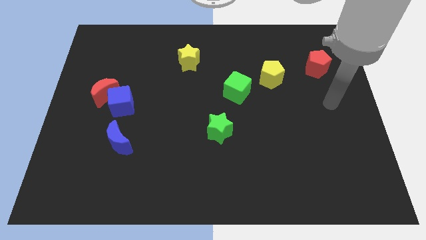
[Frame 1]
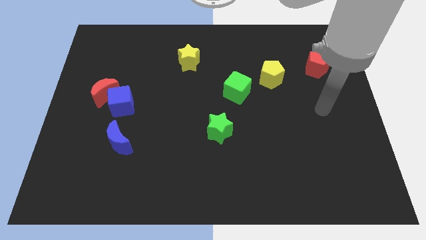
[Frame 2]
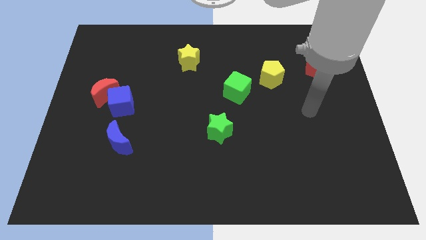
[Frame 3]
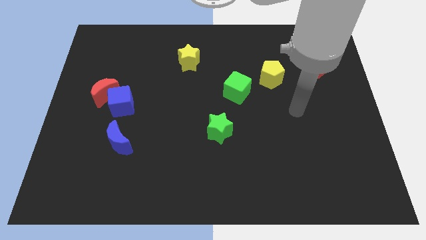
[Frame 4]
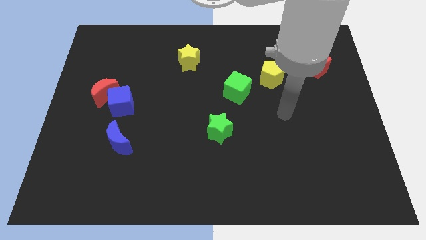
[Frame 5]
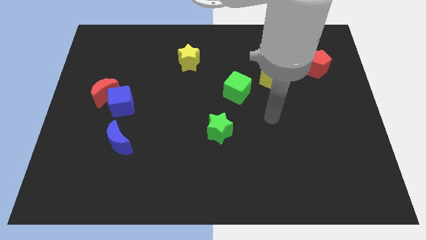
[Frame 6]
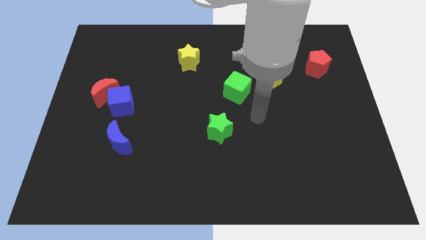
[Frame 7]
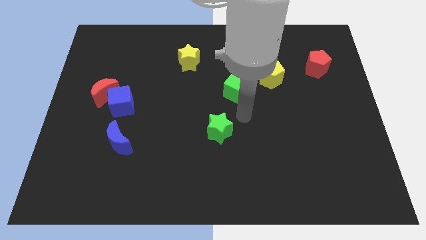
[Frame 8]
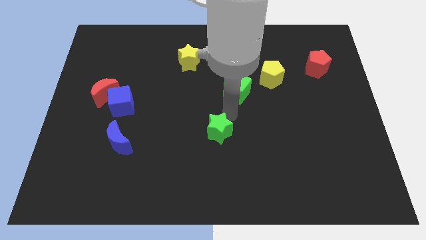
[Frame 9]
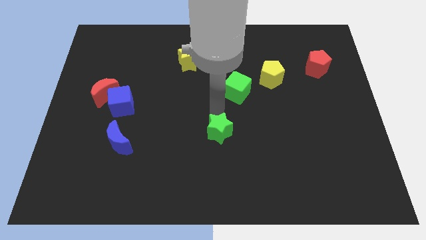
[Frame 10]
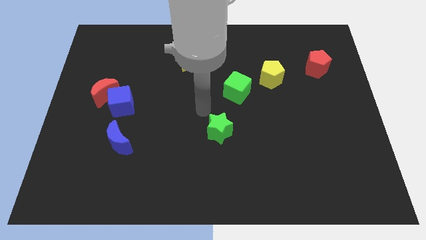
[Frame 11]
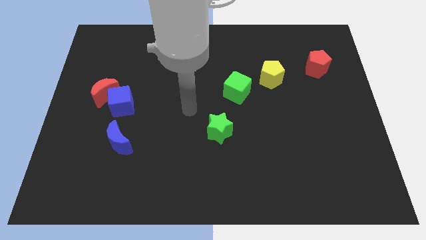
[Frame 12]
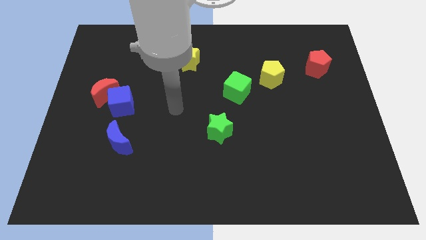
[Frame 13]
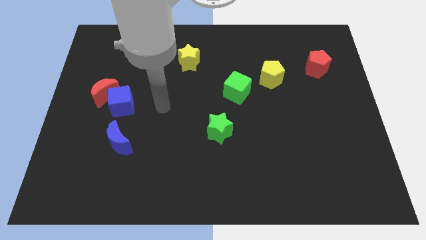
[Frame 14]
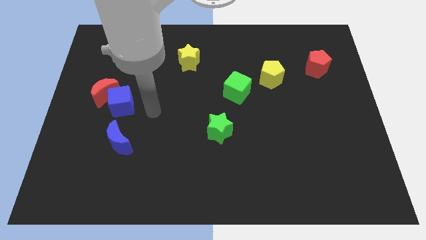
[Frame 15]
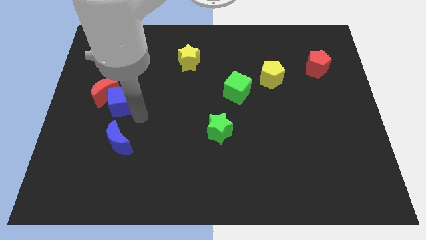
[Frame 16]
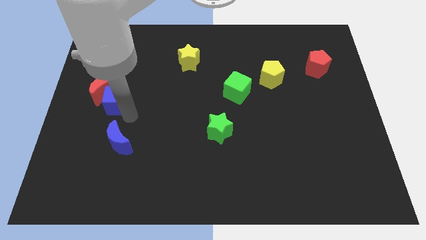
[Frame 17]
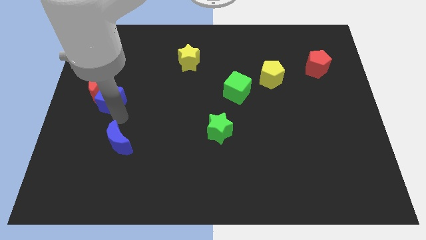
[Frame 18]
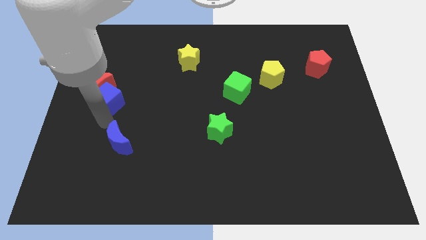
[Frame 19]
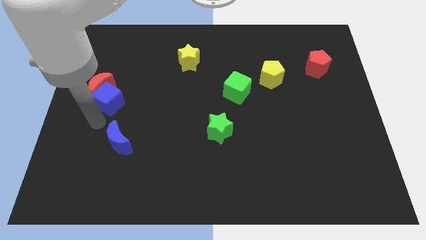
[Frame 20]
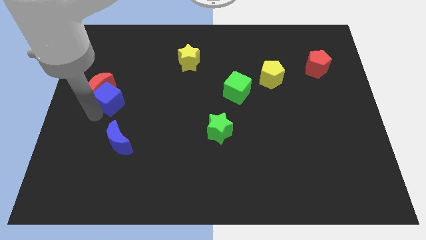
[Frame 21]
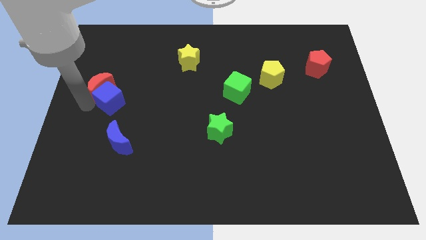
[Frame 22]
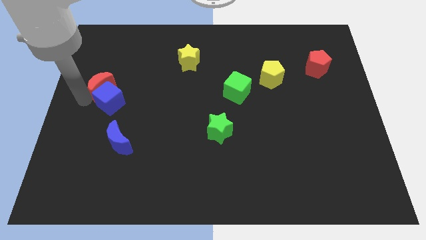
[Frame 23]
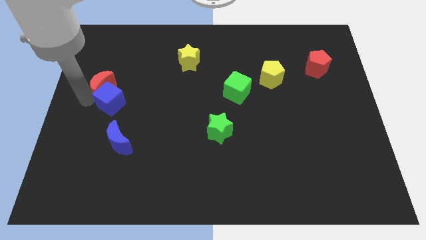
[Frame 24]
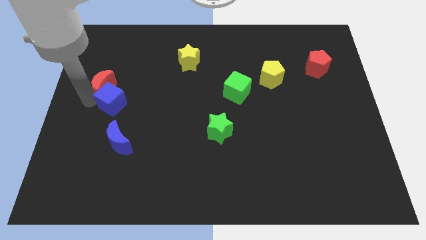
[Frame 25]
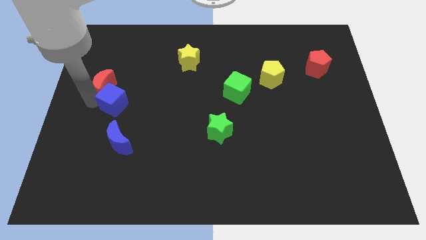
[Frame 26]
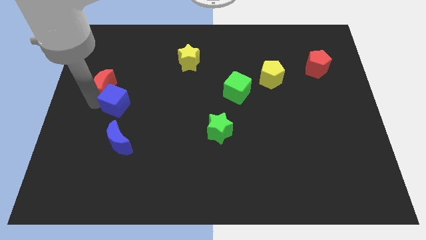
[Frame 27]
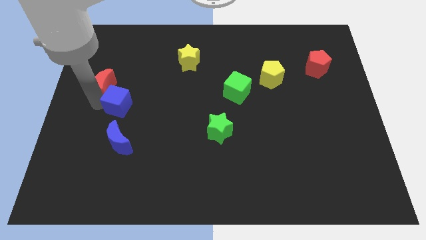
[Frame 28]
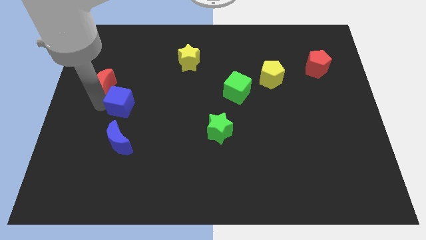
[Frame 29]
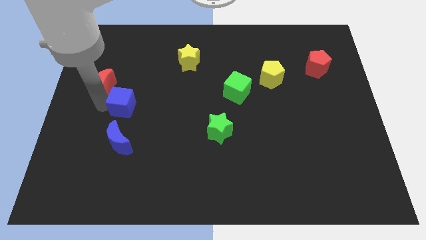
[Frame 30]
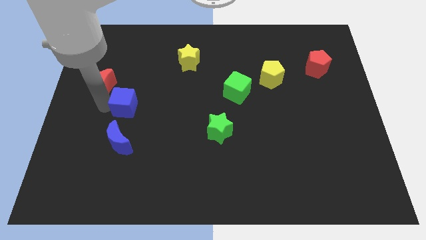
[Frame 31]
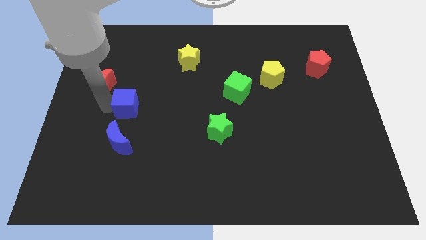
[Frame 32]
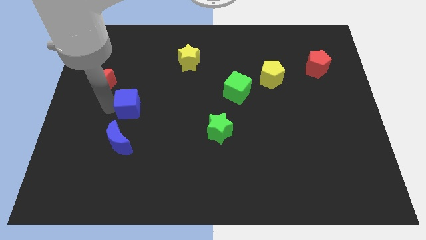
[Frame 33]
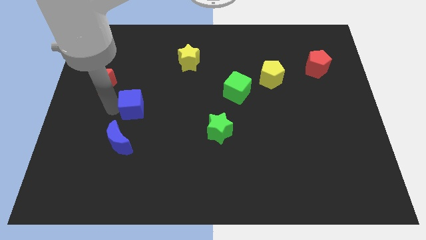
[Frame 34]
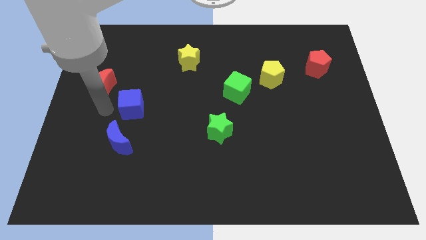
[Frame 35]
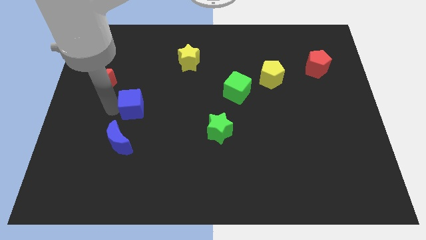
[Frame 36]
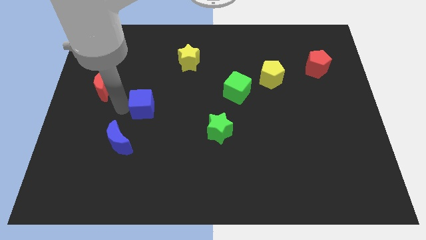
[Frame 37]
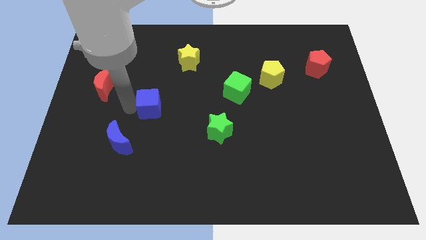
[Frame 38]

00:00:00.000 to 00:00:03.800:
move the blue cube right somewhat

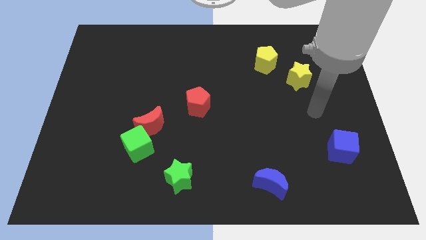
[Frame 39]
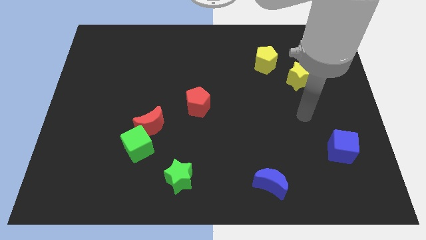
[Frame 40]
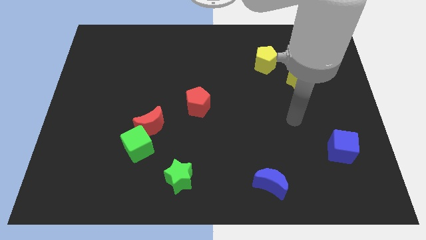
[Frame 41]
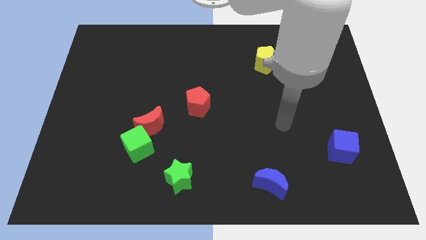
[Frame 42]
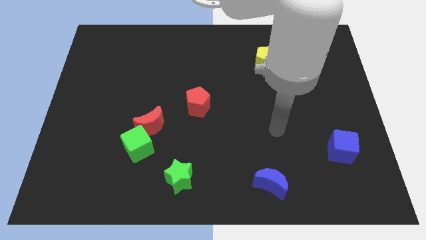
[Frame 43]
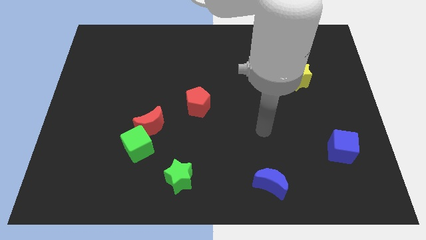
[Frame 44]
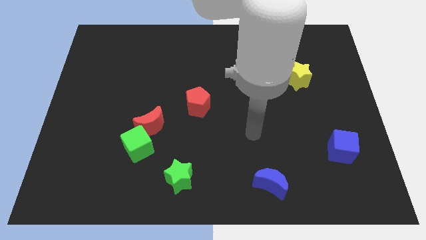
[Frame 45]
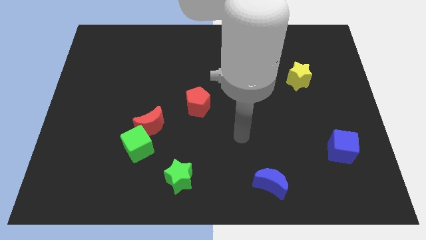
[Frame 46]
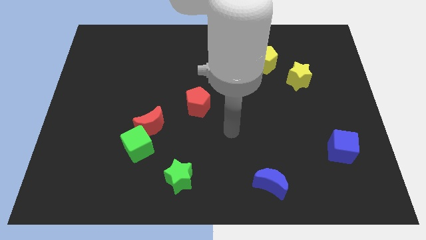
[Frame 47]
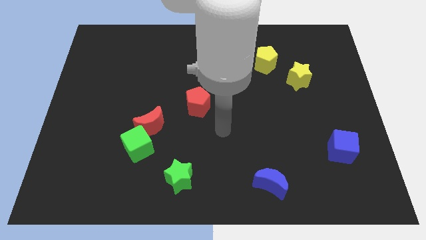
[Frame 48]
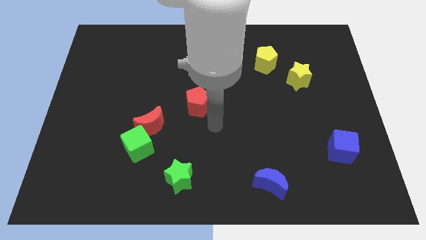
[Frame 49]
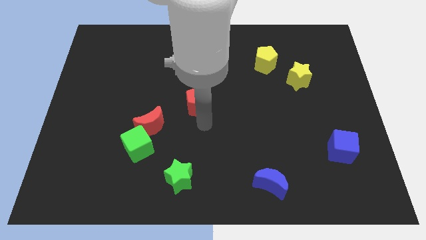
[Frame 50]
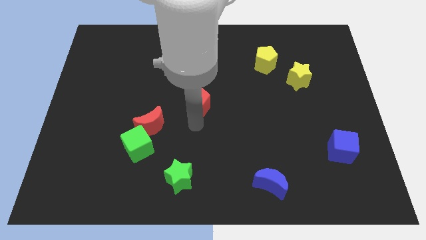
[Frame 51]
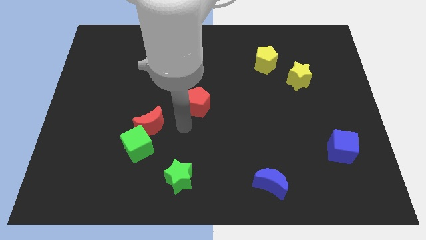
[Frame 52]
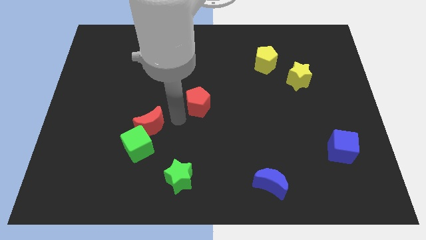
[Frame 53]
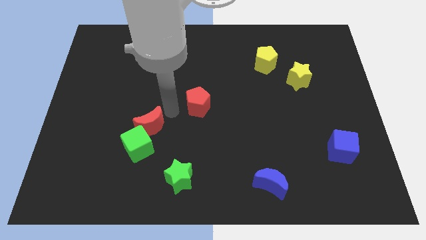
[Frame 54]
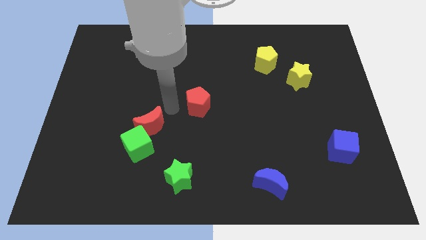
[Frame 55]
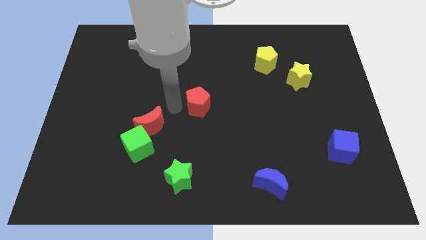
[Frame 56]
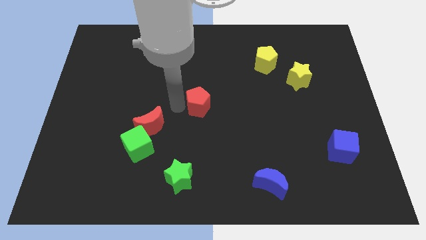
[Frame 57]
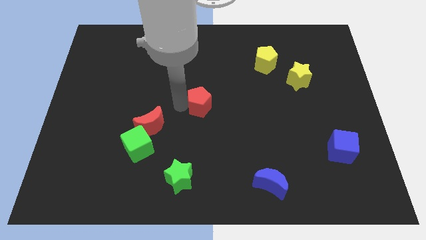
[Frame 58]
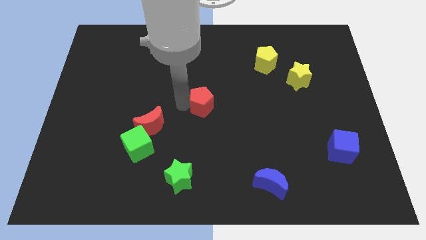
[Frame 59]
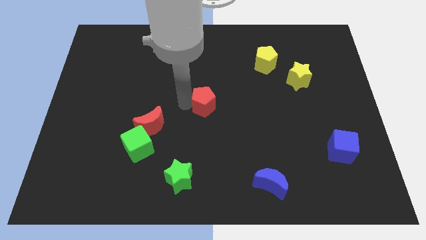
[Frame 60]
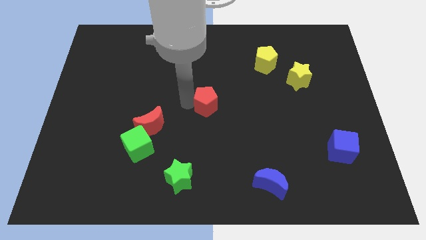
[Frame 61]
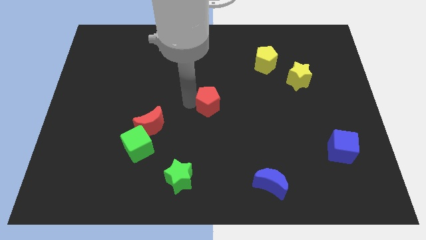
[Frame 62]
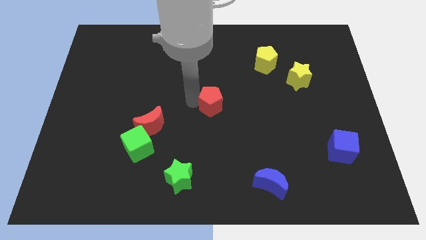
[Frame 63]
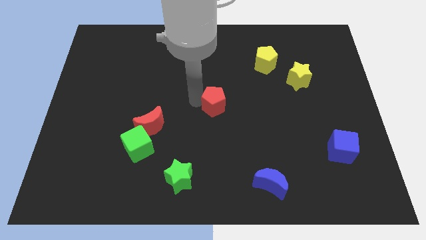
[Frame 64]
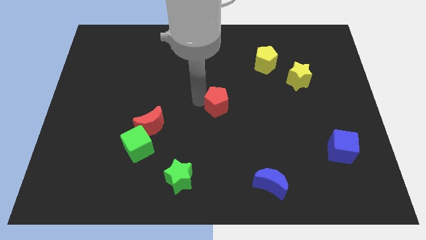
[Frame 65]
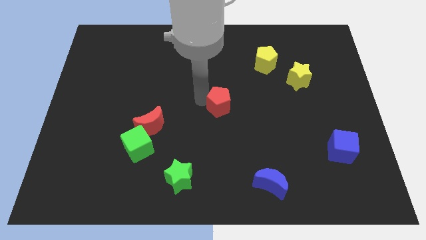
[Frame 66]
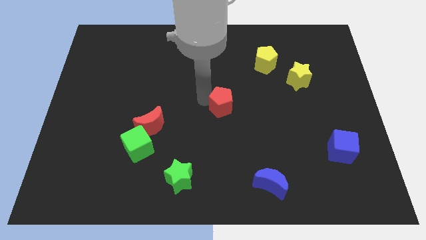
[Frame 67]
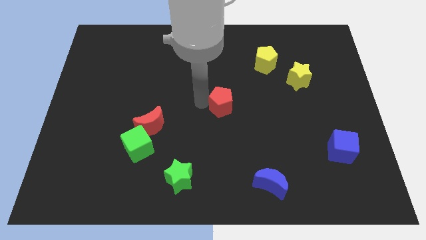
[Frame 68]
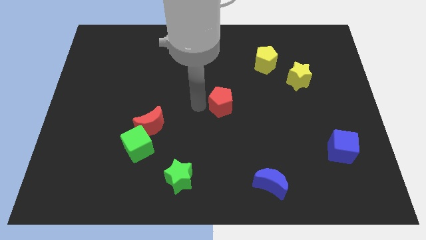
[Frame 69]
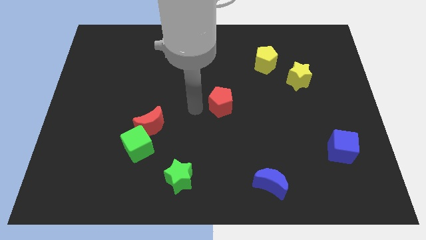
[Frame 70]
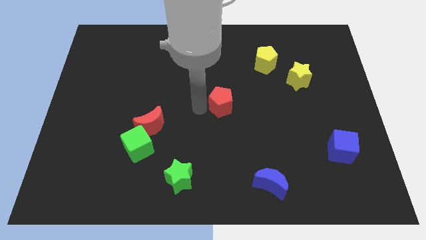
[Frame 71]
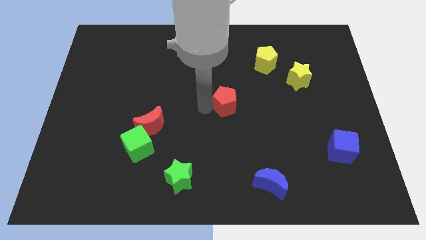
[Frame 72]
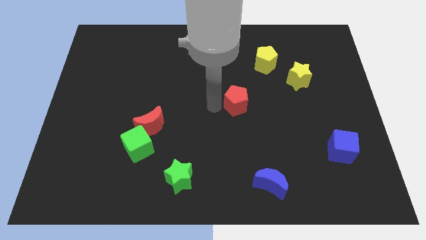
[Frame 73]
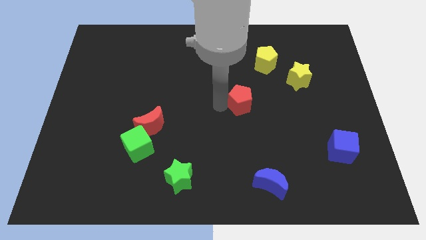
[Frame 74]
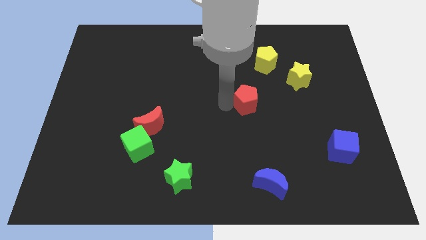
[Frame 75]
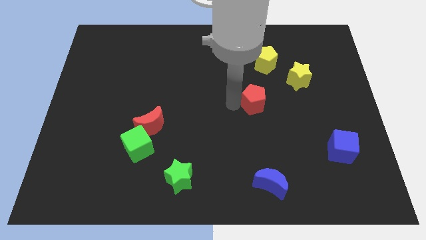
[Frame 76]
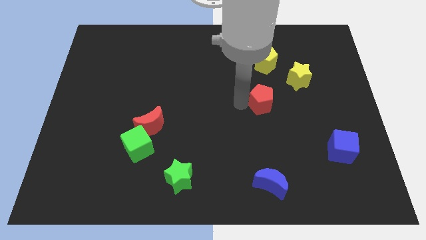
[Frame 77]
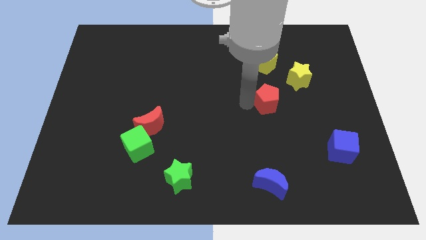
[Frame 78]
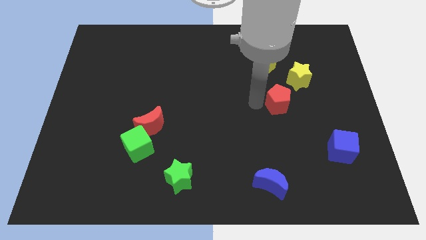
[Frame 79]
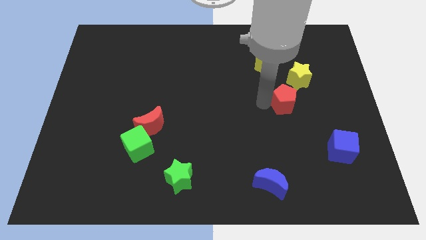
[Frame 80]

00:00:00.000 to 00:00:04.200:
slide the red pentagon right

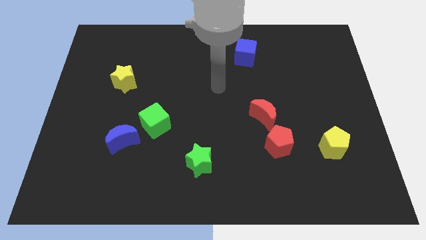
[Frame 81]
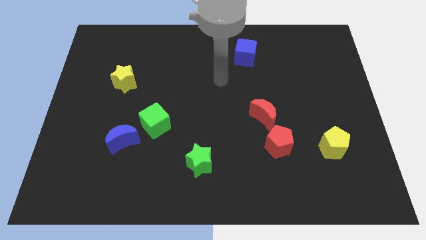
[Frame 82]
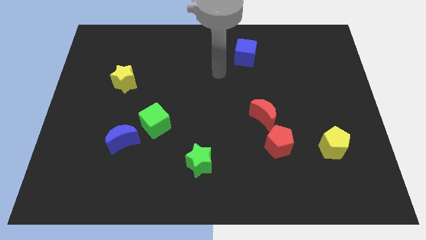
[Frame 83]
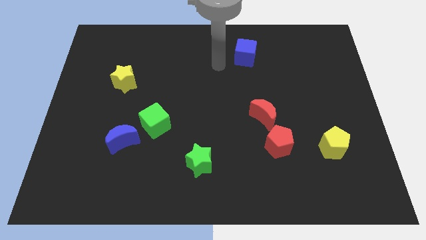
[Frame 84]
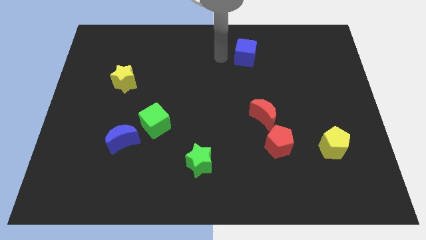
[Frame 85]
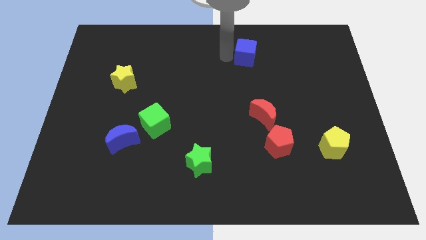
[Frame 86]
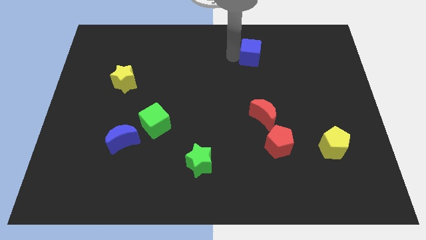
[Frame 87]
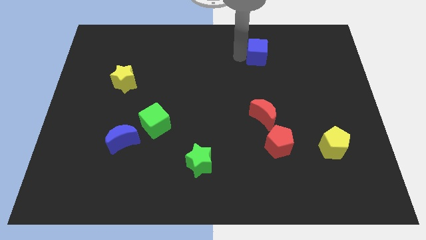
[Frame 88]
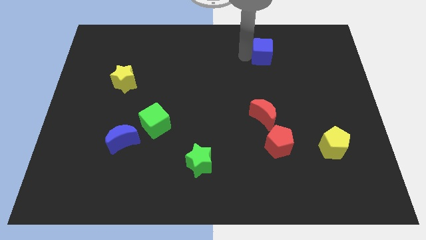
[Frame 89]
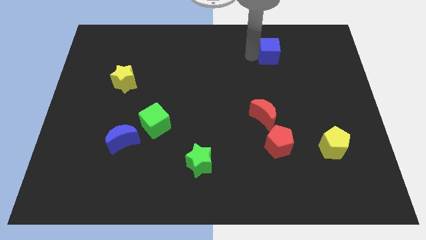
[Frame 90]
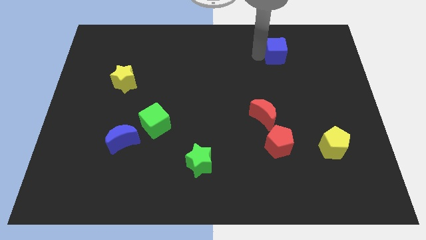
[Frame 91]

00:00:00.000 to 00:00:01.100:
slightly slide the blue cube to the right
